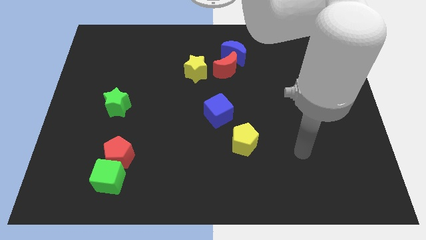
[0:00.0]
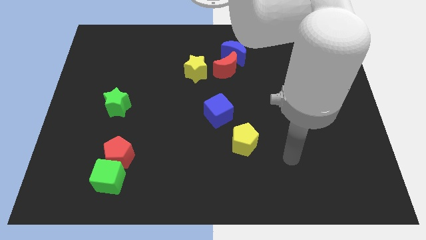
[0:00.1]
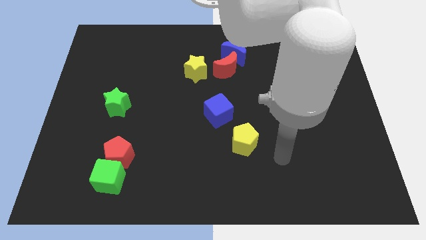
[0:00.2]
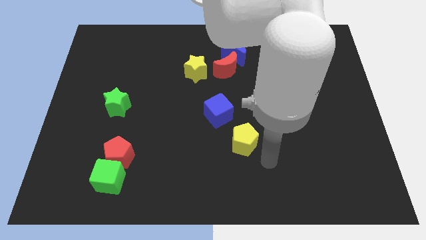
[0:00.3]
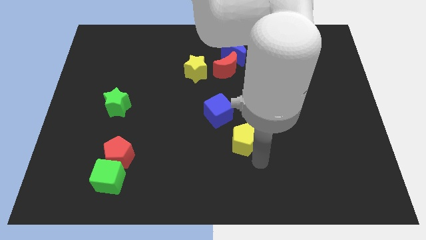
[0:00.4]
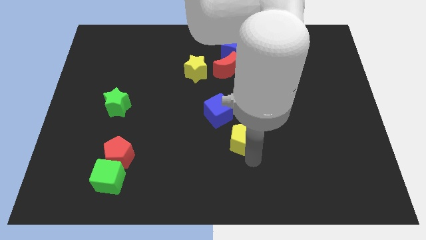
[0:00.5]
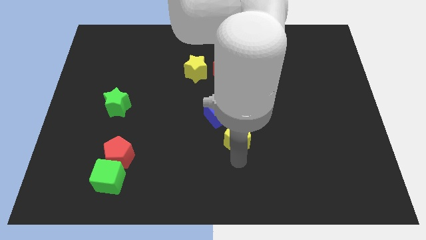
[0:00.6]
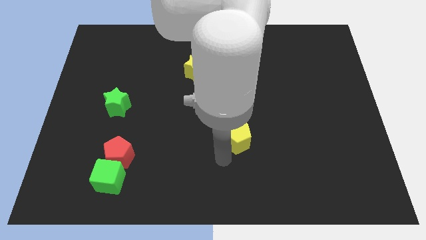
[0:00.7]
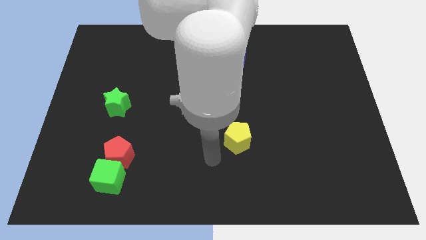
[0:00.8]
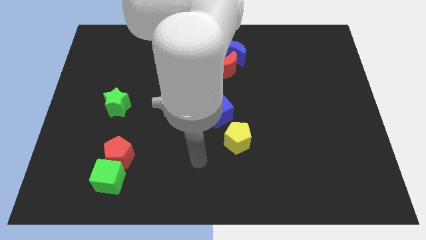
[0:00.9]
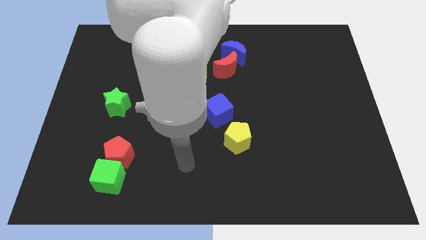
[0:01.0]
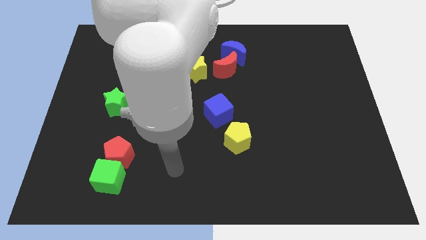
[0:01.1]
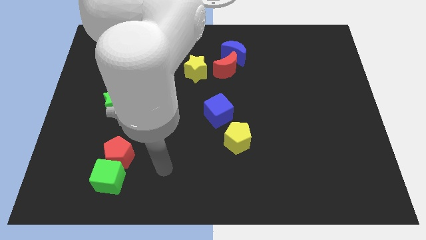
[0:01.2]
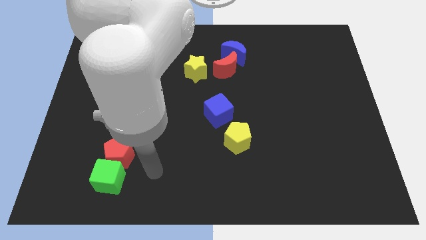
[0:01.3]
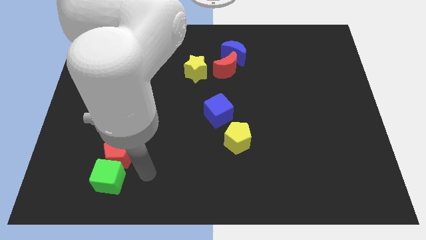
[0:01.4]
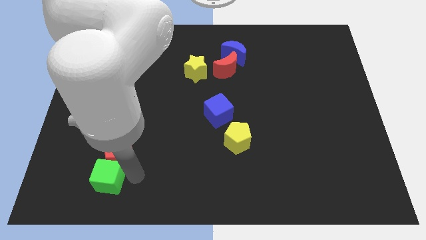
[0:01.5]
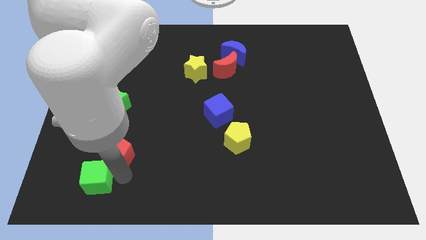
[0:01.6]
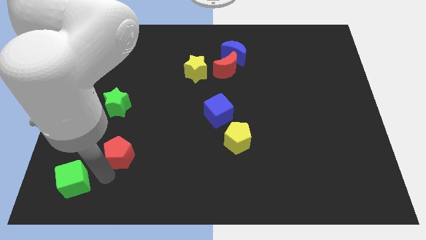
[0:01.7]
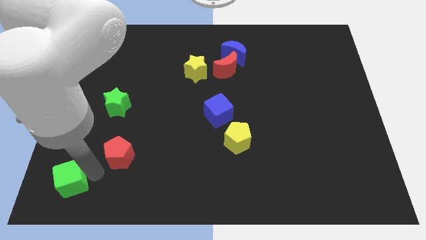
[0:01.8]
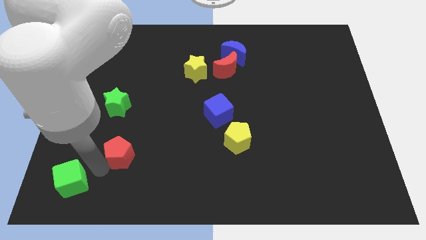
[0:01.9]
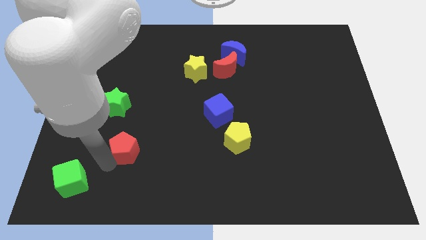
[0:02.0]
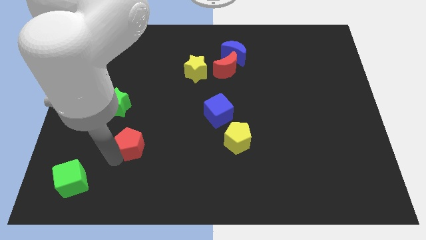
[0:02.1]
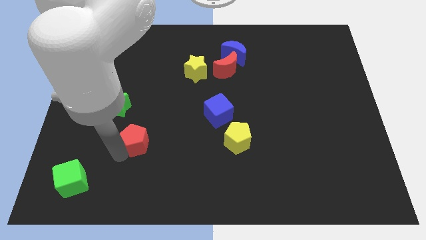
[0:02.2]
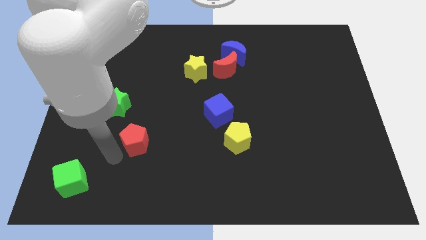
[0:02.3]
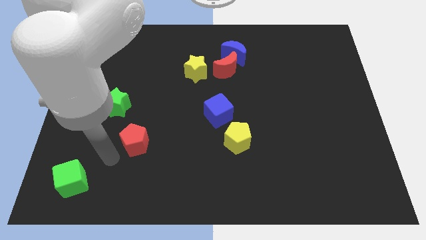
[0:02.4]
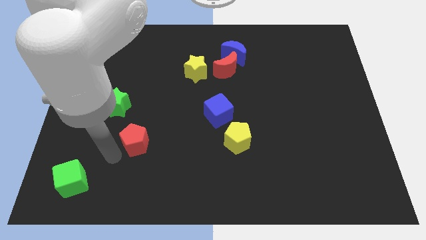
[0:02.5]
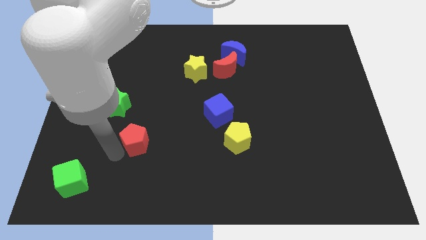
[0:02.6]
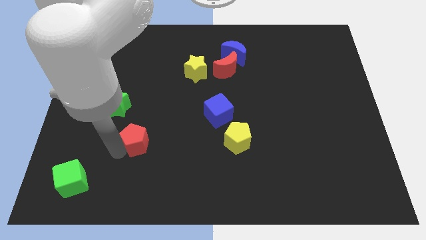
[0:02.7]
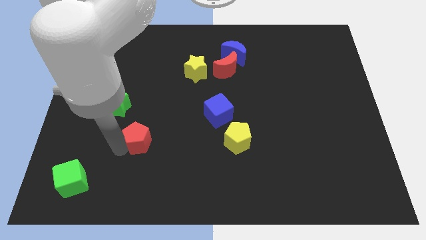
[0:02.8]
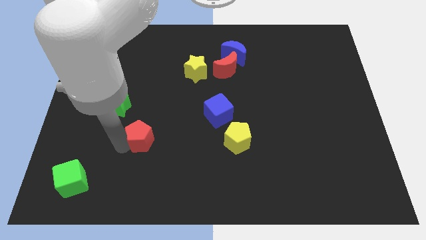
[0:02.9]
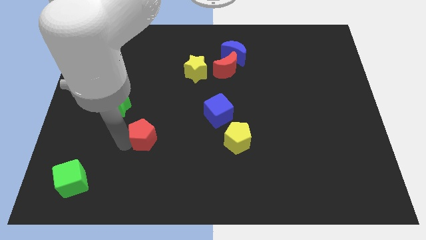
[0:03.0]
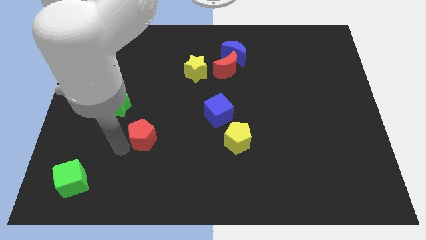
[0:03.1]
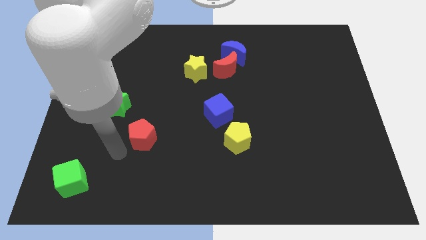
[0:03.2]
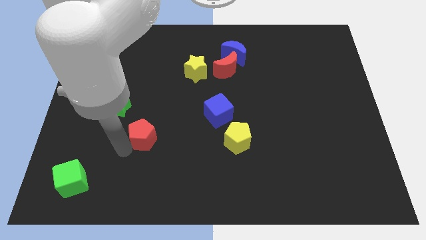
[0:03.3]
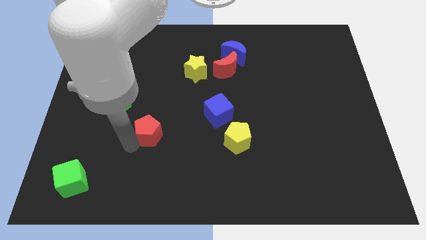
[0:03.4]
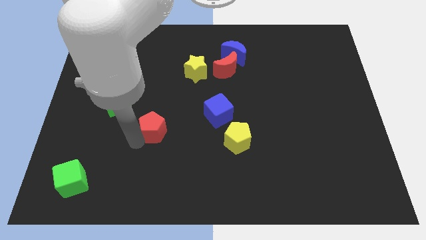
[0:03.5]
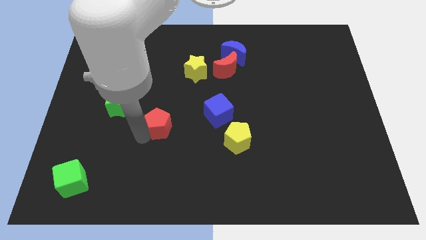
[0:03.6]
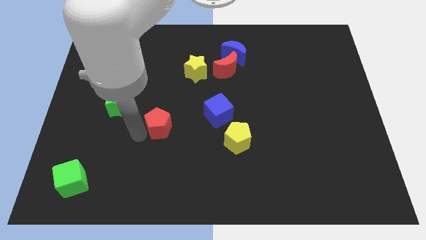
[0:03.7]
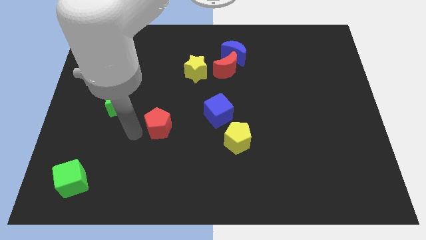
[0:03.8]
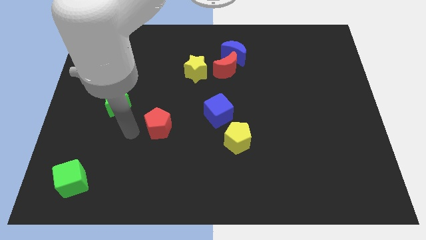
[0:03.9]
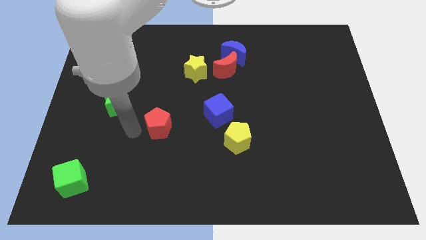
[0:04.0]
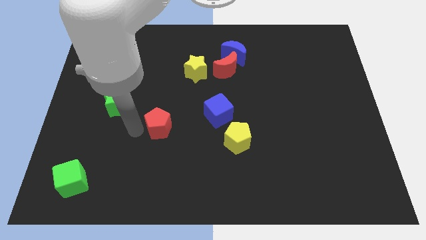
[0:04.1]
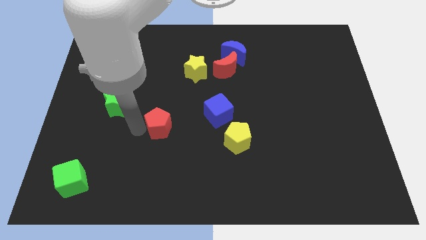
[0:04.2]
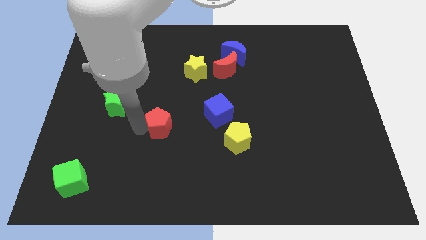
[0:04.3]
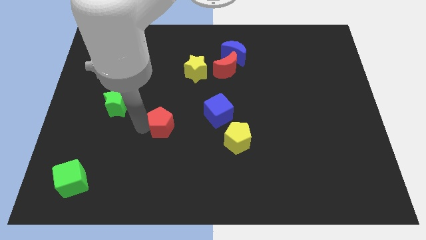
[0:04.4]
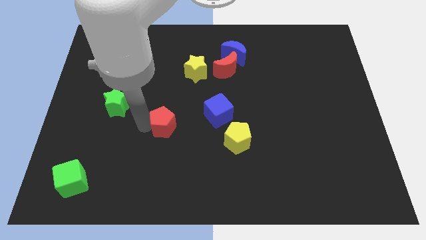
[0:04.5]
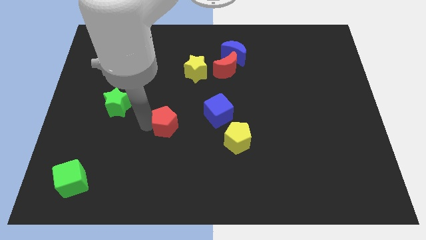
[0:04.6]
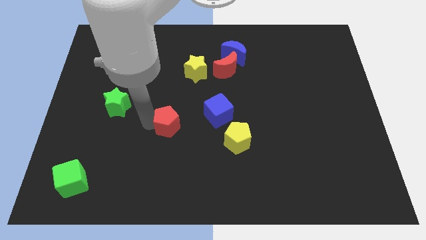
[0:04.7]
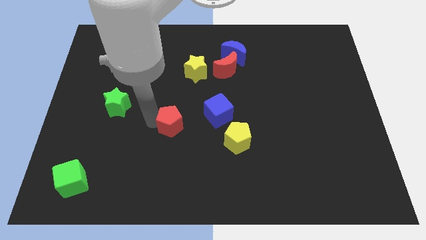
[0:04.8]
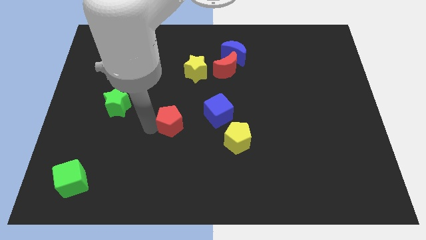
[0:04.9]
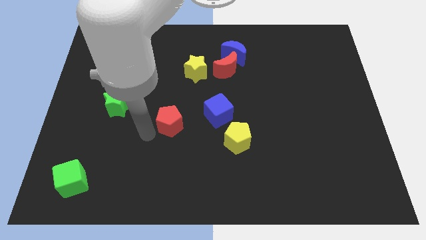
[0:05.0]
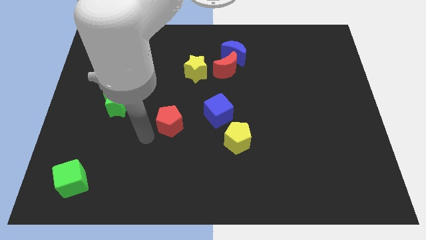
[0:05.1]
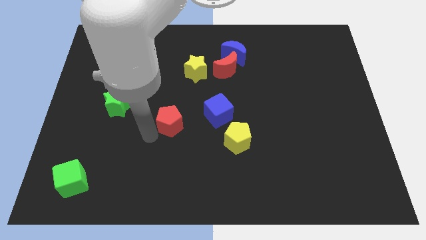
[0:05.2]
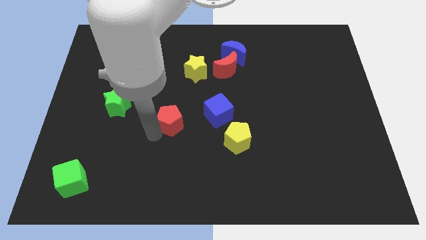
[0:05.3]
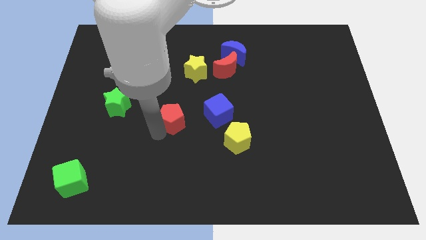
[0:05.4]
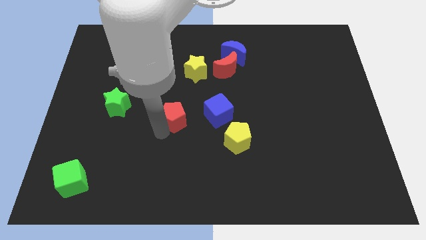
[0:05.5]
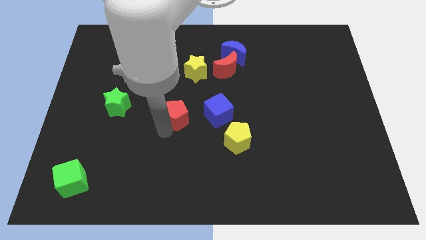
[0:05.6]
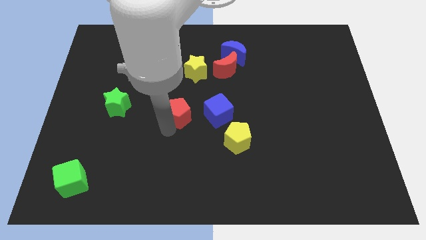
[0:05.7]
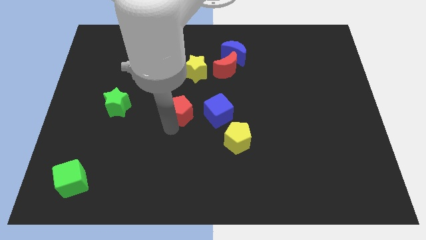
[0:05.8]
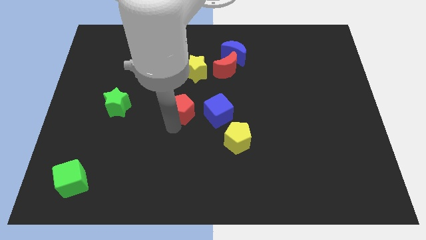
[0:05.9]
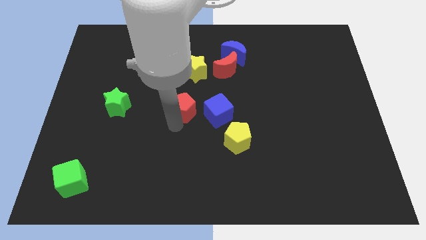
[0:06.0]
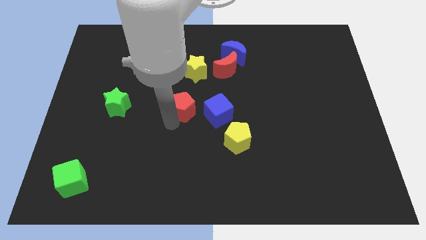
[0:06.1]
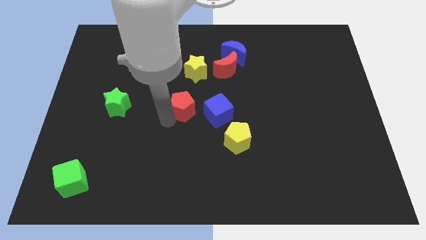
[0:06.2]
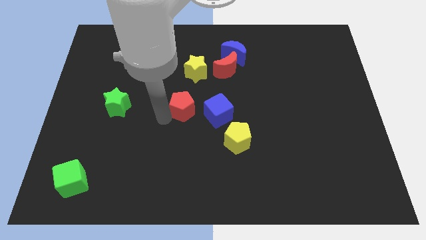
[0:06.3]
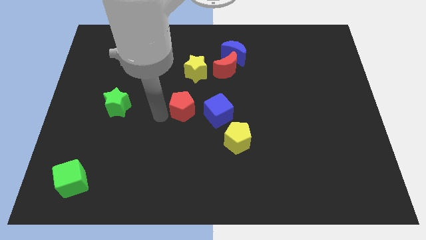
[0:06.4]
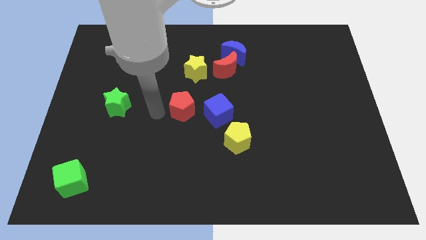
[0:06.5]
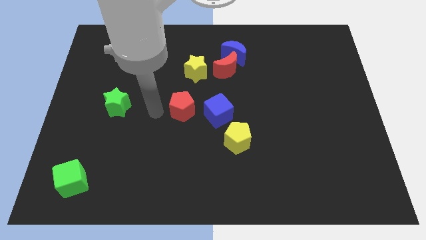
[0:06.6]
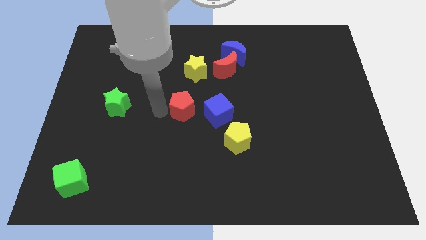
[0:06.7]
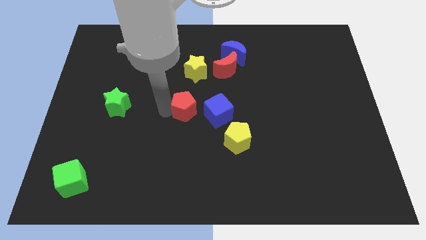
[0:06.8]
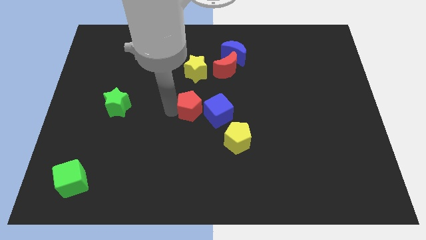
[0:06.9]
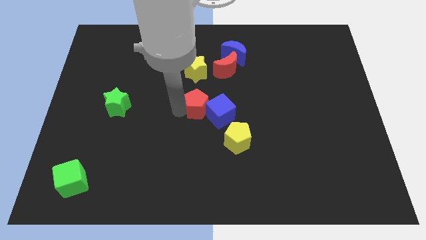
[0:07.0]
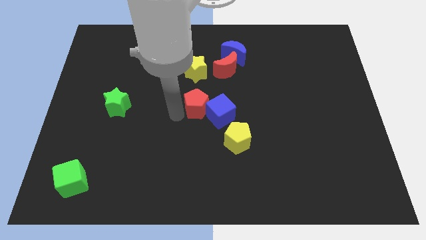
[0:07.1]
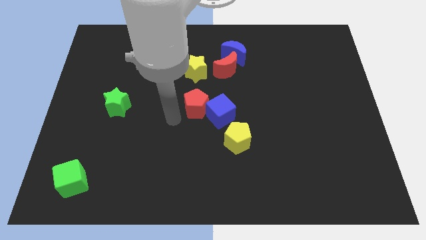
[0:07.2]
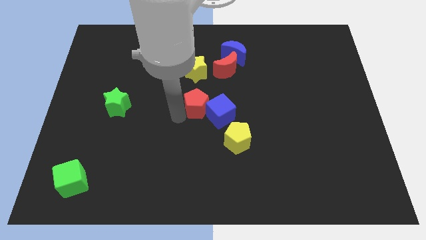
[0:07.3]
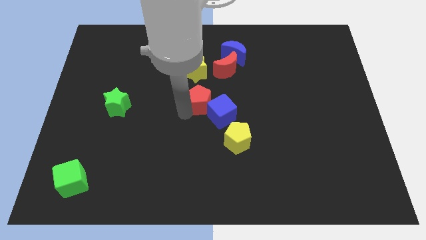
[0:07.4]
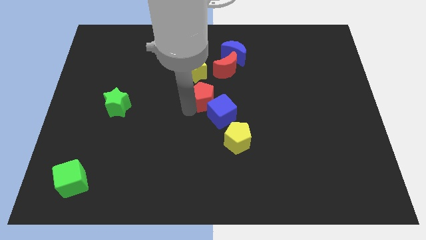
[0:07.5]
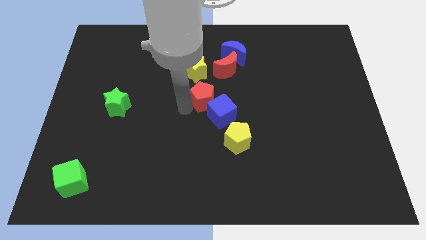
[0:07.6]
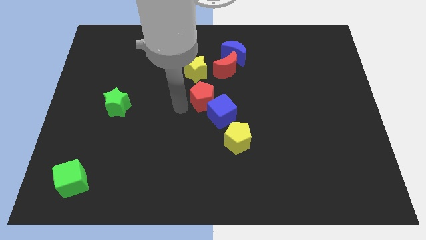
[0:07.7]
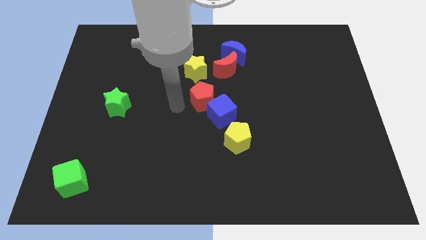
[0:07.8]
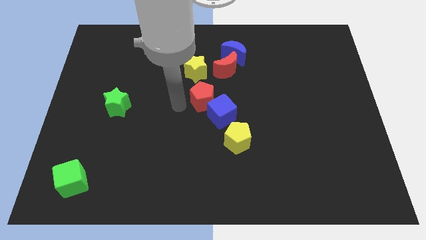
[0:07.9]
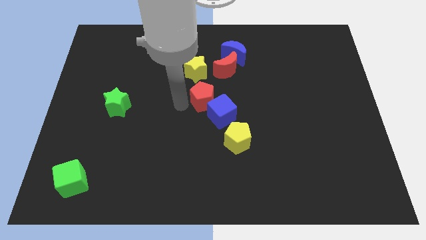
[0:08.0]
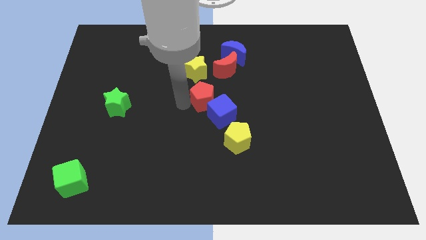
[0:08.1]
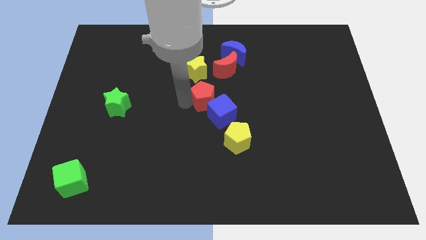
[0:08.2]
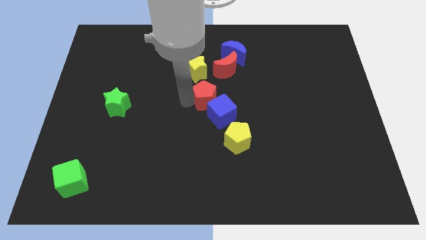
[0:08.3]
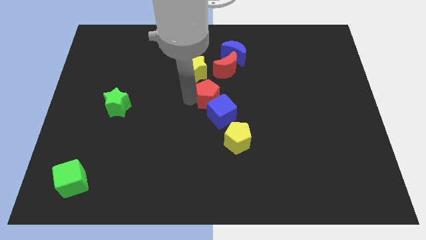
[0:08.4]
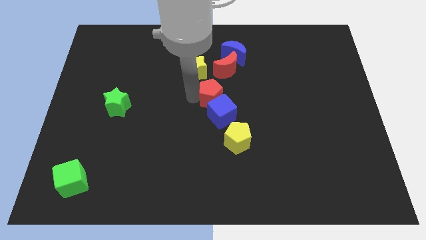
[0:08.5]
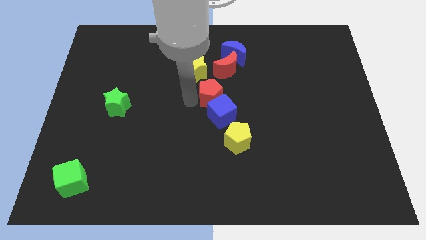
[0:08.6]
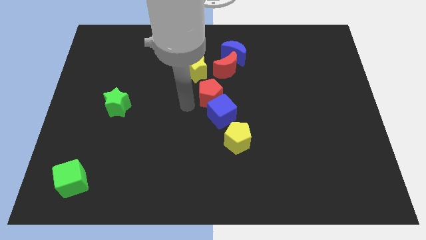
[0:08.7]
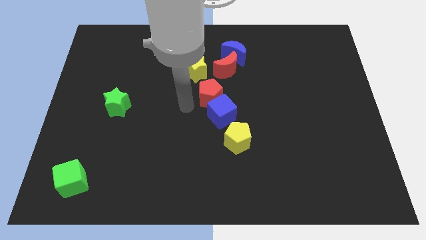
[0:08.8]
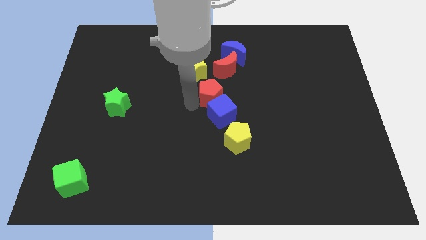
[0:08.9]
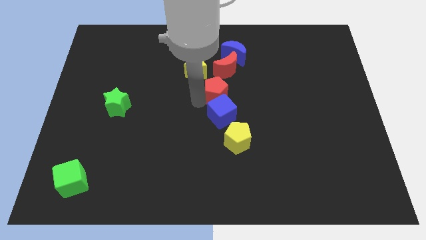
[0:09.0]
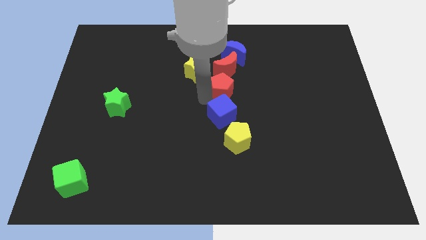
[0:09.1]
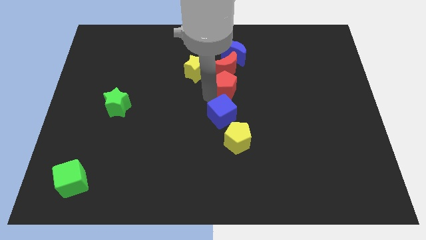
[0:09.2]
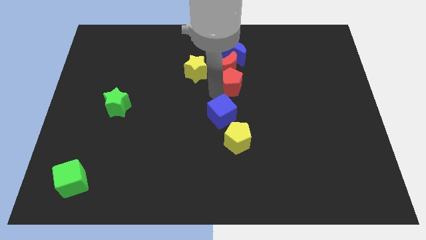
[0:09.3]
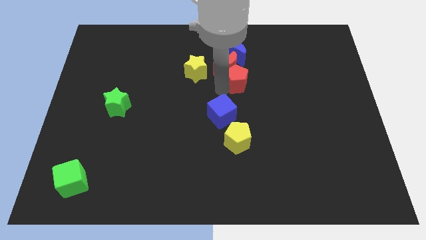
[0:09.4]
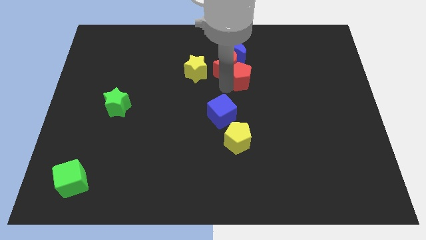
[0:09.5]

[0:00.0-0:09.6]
move the red pentagon to the right of the red moon
